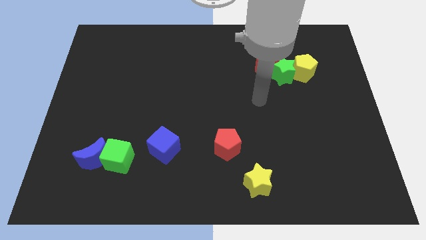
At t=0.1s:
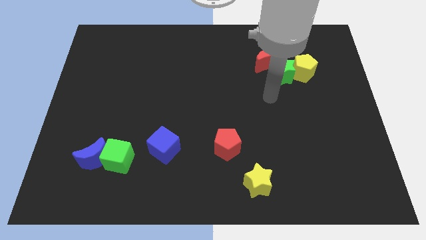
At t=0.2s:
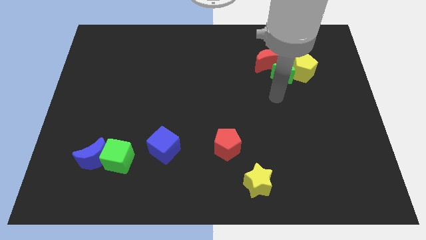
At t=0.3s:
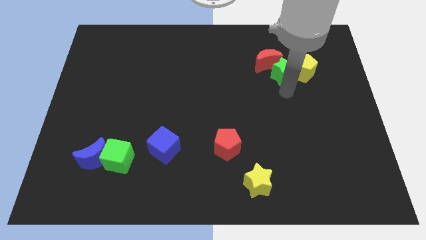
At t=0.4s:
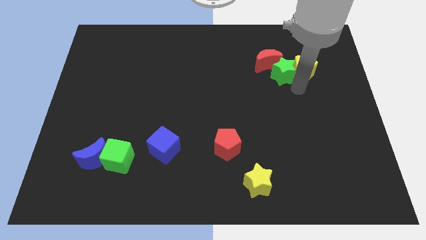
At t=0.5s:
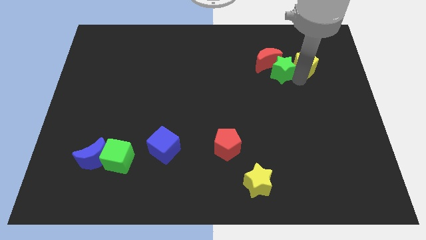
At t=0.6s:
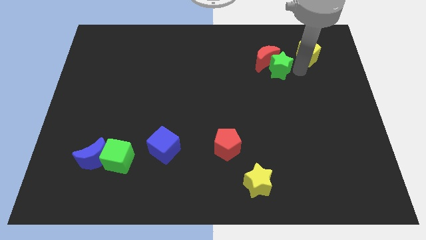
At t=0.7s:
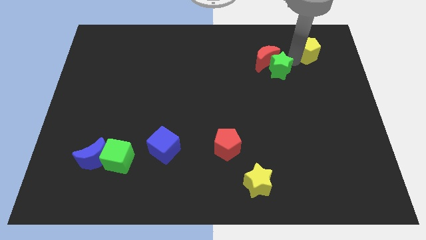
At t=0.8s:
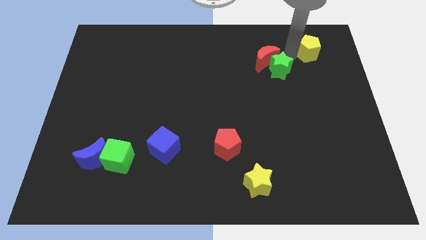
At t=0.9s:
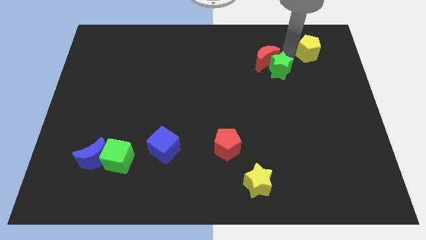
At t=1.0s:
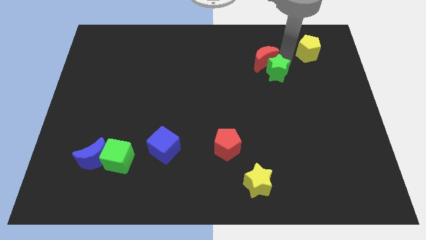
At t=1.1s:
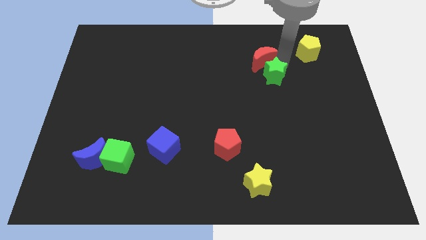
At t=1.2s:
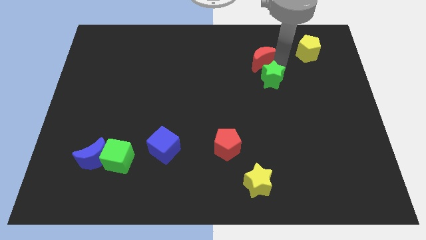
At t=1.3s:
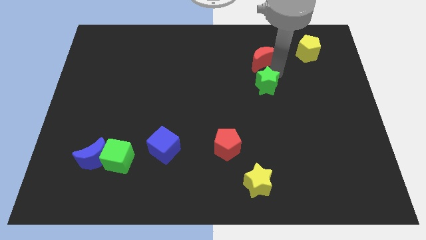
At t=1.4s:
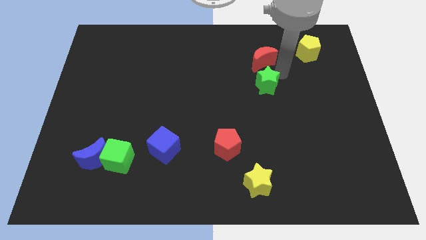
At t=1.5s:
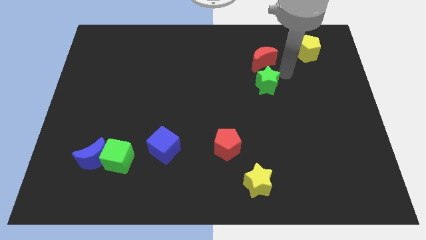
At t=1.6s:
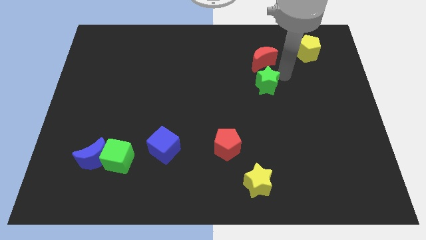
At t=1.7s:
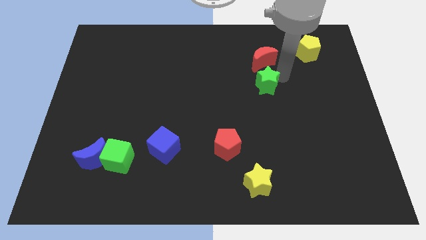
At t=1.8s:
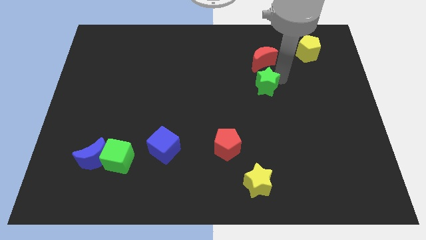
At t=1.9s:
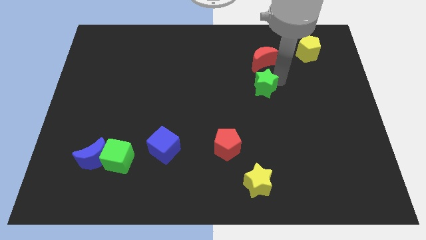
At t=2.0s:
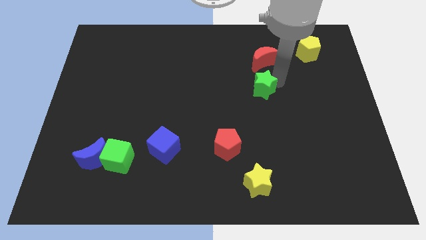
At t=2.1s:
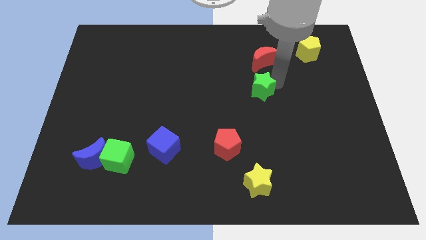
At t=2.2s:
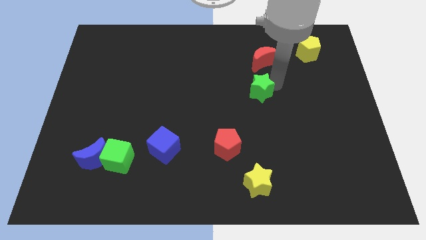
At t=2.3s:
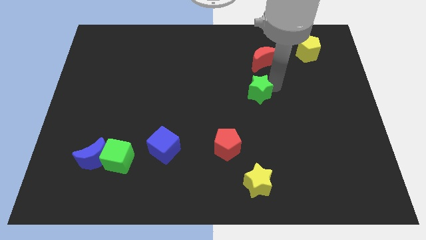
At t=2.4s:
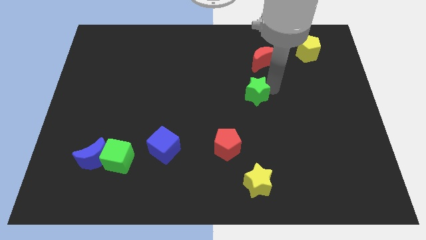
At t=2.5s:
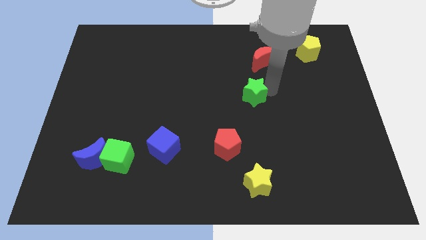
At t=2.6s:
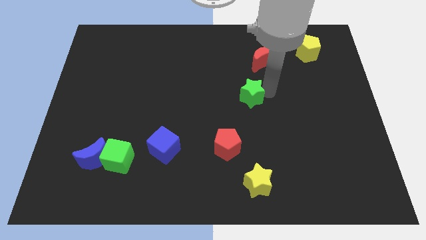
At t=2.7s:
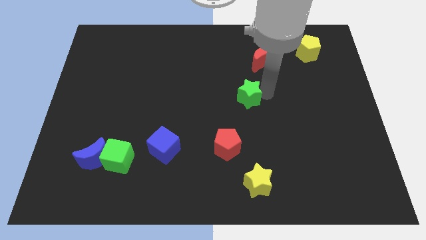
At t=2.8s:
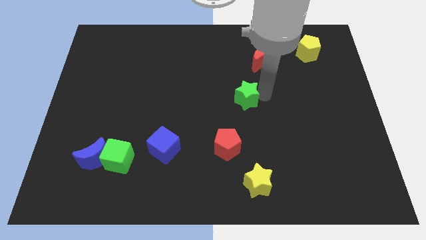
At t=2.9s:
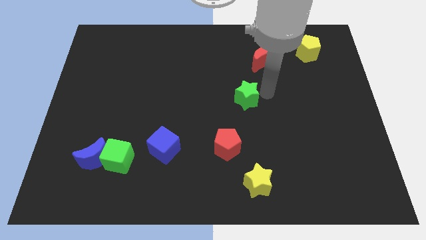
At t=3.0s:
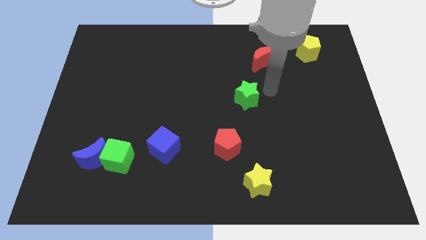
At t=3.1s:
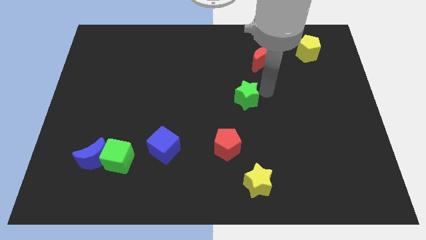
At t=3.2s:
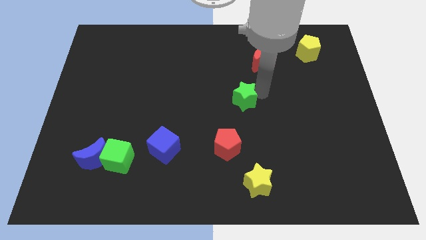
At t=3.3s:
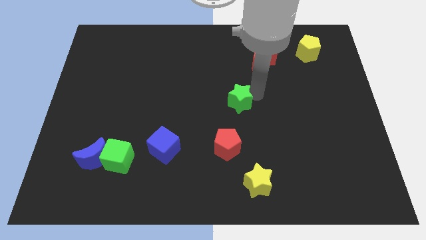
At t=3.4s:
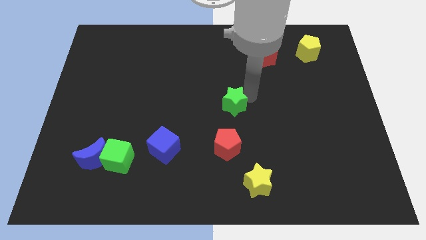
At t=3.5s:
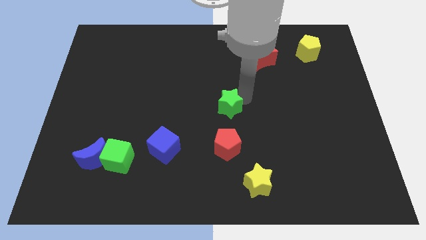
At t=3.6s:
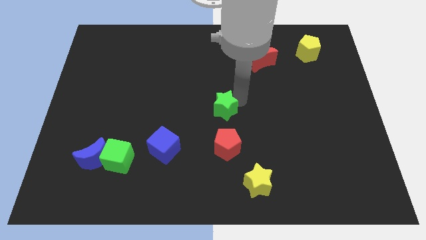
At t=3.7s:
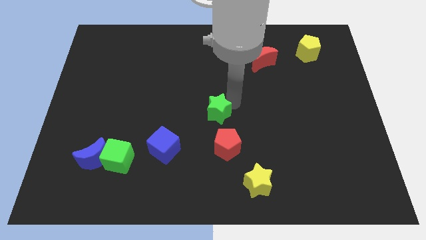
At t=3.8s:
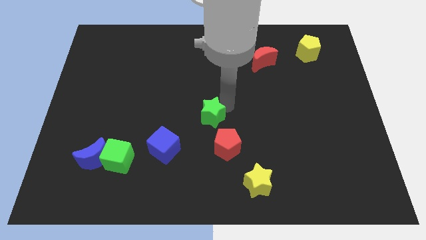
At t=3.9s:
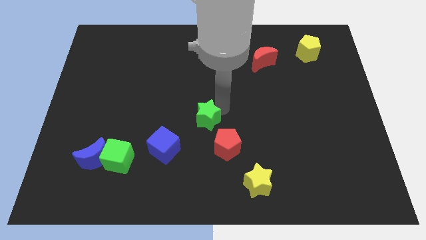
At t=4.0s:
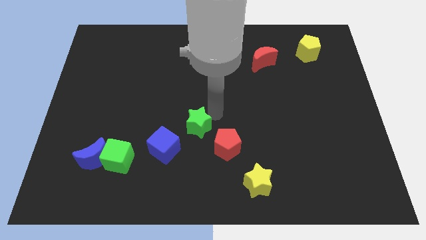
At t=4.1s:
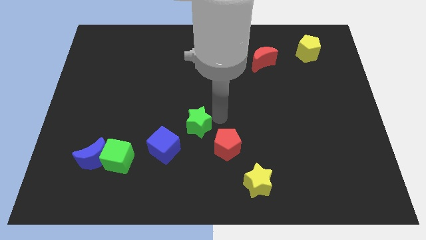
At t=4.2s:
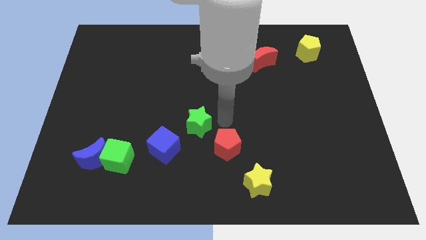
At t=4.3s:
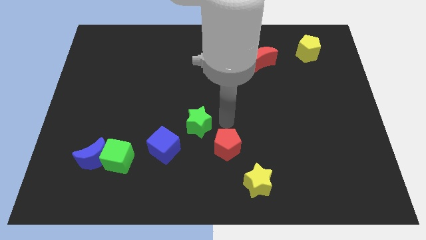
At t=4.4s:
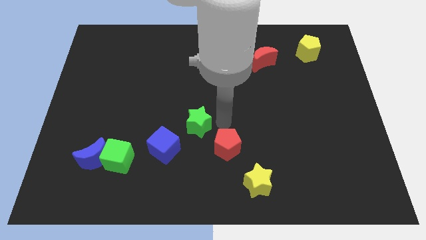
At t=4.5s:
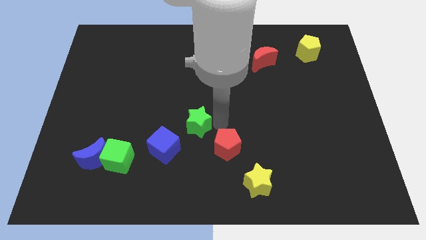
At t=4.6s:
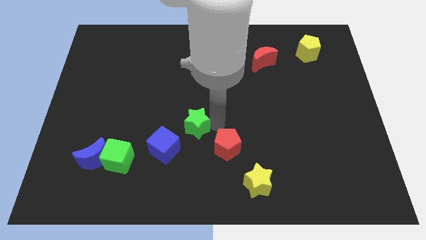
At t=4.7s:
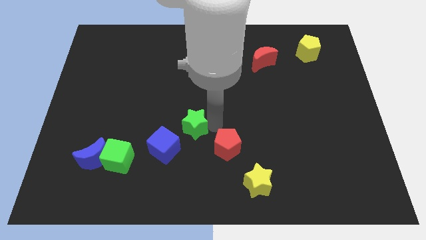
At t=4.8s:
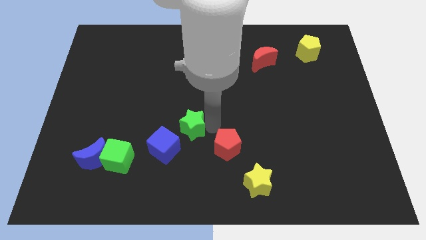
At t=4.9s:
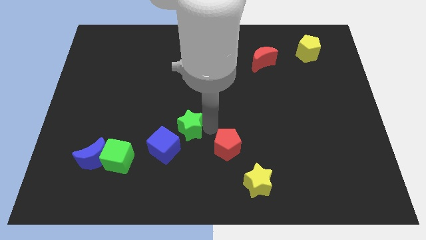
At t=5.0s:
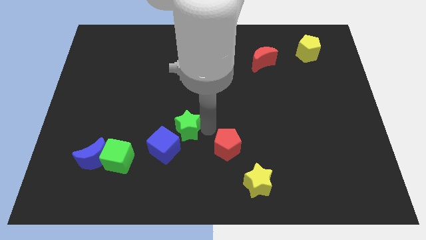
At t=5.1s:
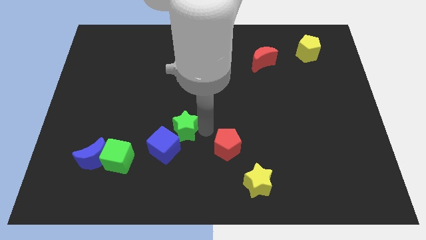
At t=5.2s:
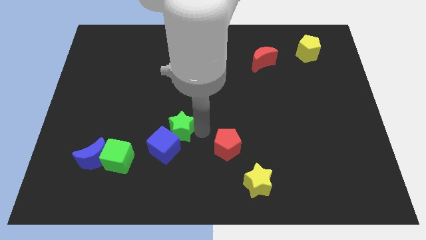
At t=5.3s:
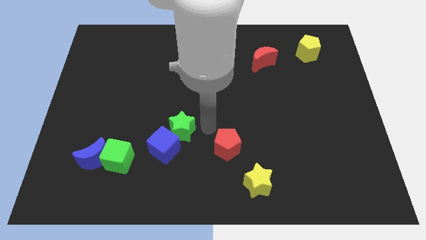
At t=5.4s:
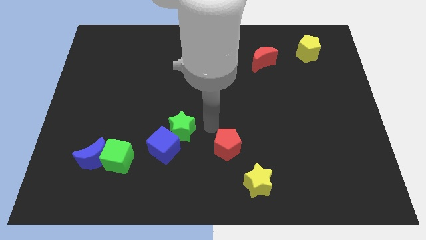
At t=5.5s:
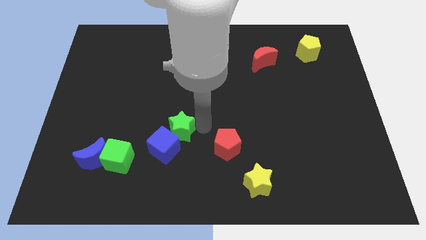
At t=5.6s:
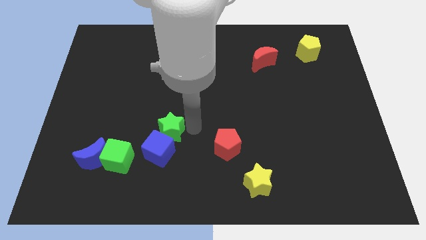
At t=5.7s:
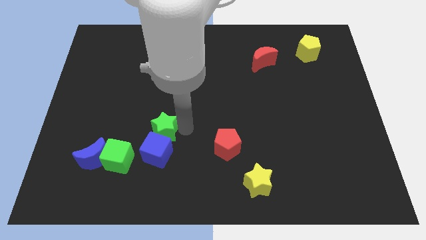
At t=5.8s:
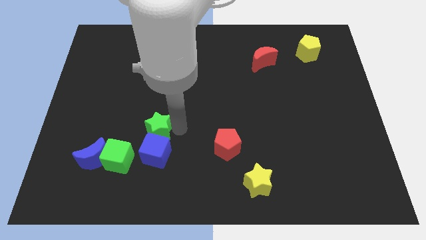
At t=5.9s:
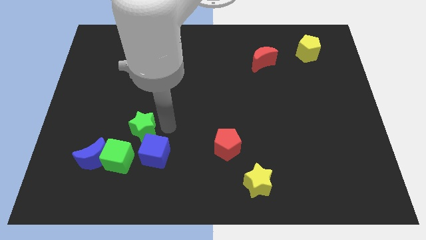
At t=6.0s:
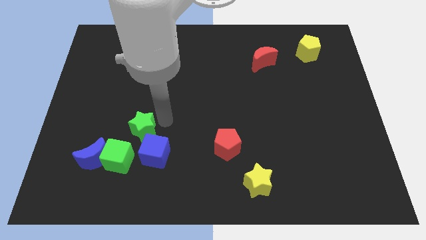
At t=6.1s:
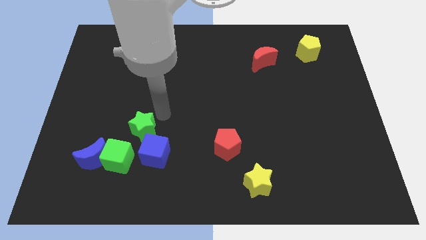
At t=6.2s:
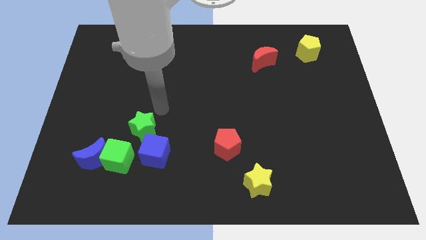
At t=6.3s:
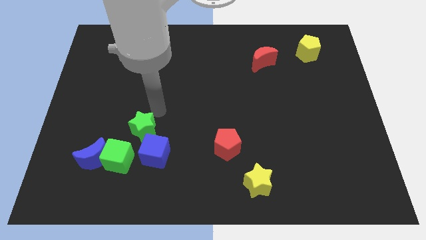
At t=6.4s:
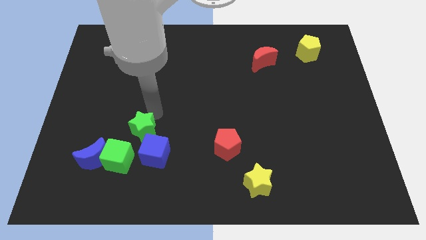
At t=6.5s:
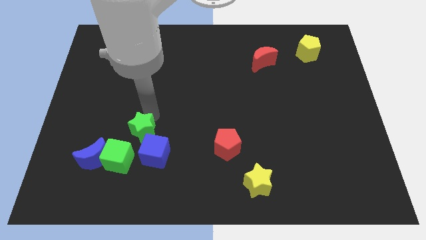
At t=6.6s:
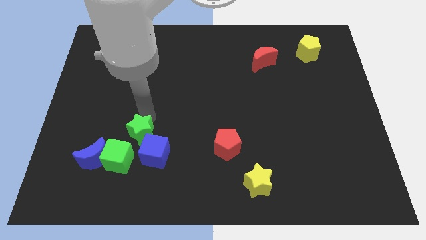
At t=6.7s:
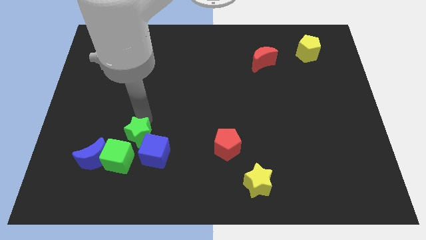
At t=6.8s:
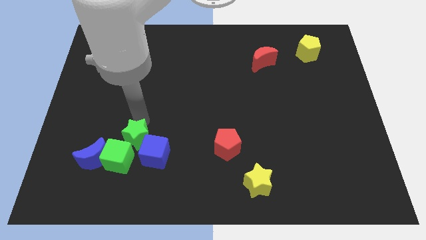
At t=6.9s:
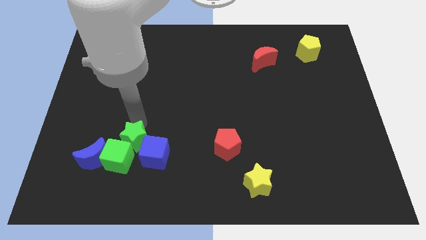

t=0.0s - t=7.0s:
slide the green star to the green cube
